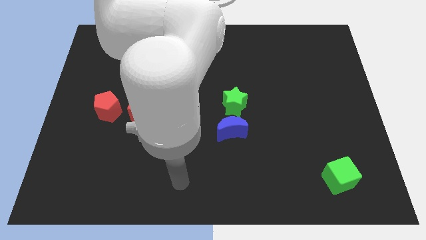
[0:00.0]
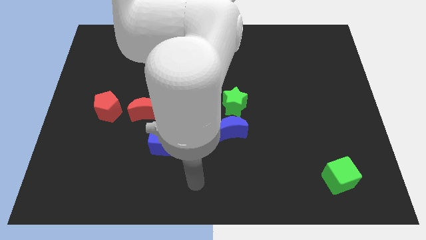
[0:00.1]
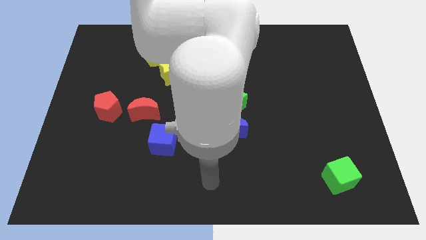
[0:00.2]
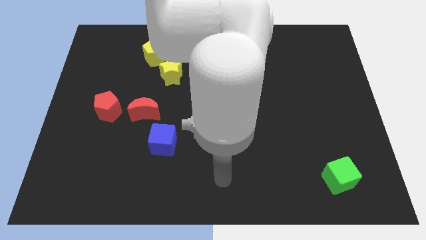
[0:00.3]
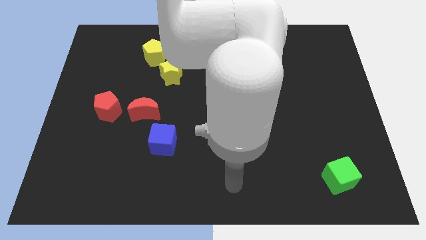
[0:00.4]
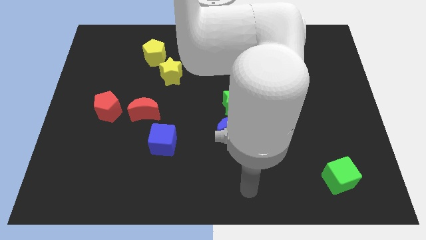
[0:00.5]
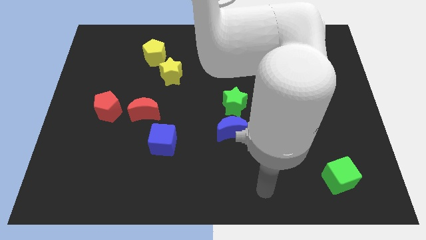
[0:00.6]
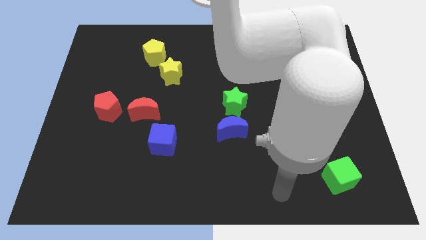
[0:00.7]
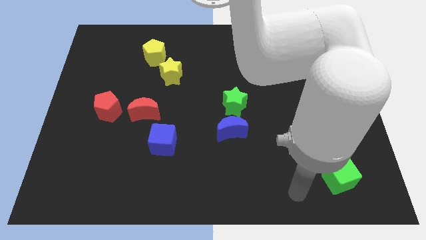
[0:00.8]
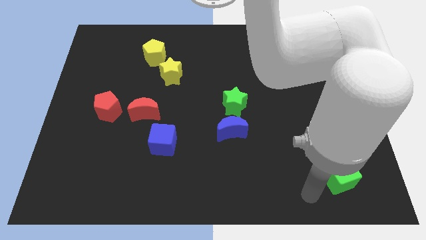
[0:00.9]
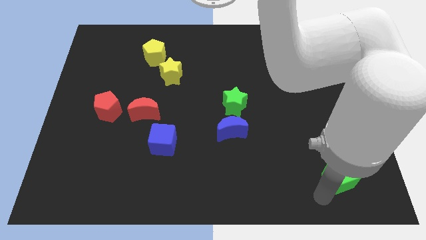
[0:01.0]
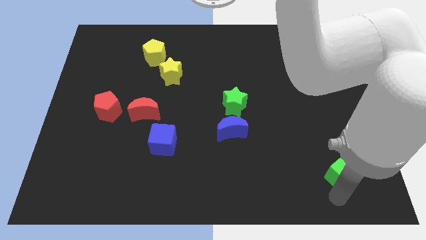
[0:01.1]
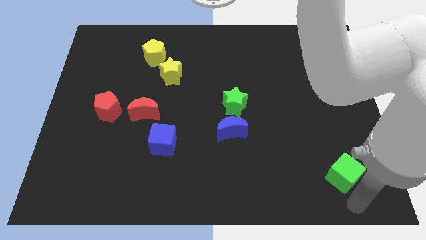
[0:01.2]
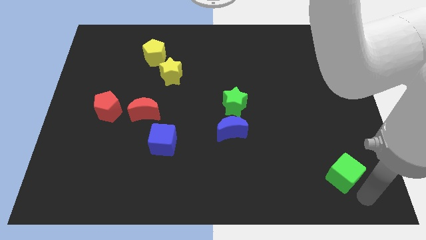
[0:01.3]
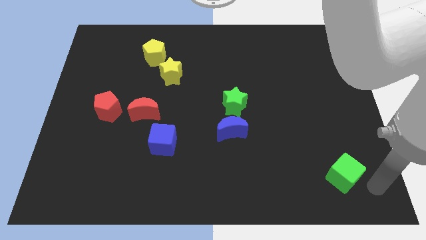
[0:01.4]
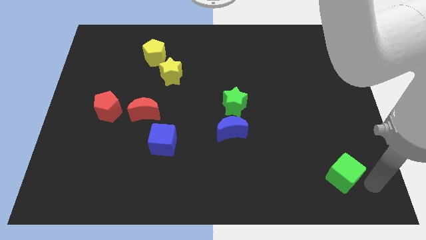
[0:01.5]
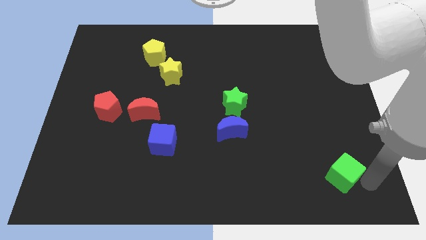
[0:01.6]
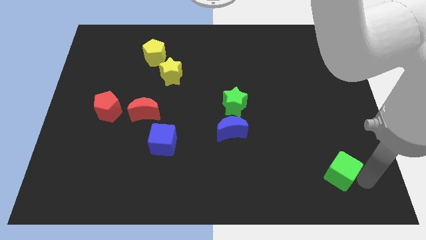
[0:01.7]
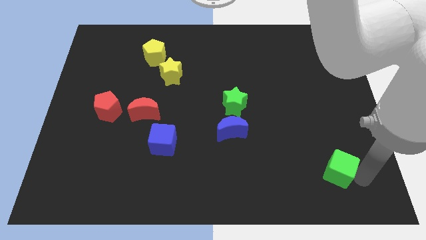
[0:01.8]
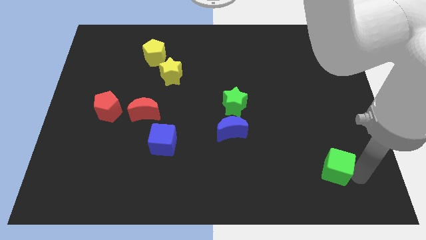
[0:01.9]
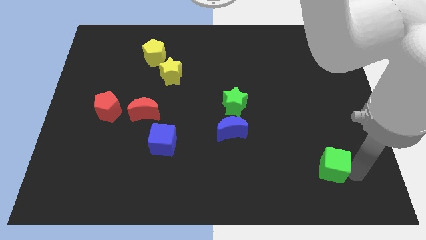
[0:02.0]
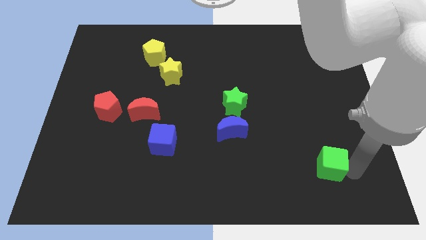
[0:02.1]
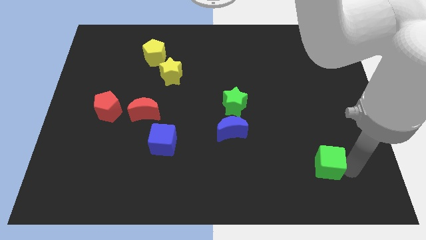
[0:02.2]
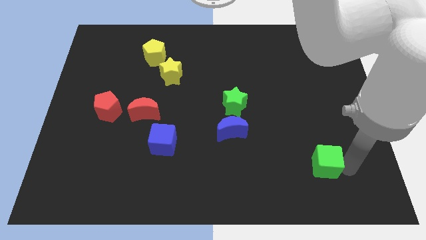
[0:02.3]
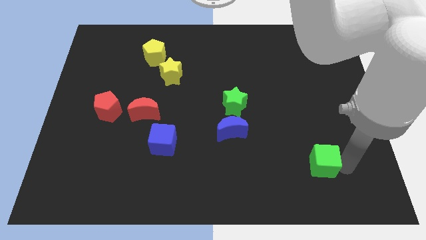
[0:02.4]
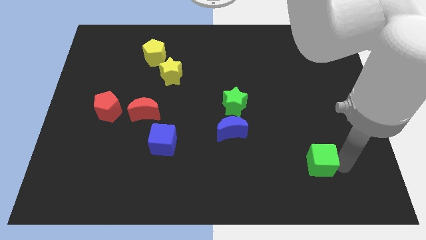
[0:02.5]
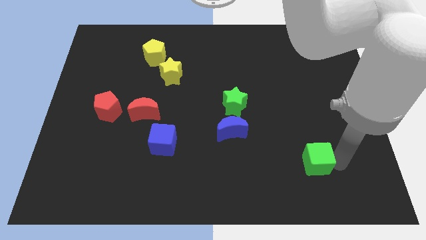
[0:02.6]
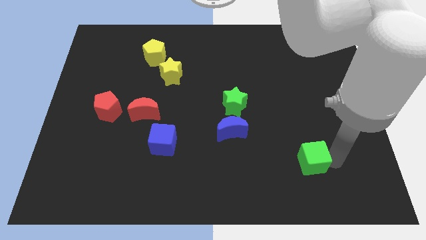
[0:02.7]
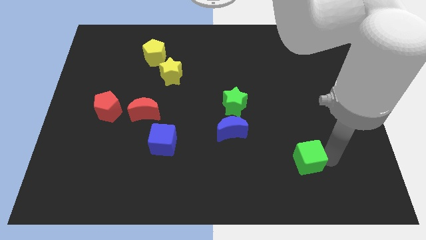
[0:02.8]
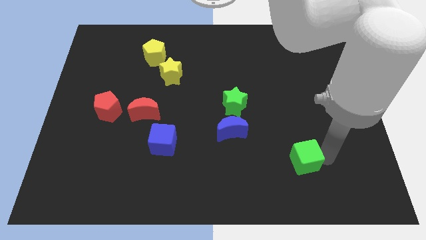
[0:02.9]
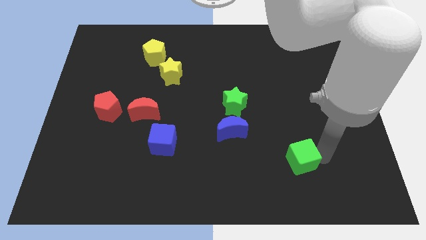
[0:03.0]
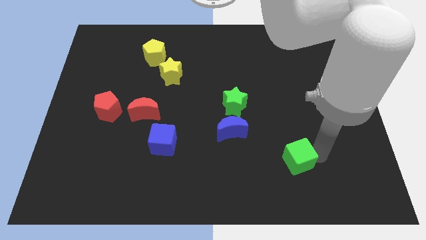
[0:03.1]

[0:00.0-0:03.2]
slightly move the green cube to the left

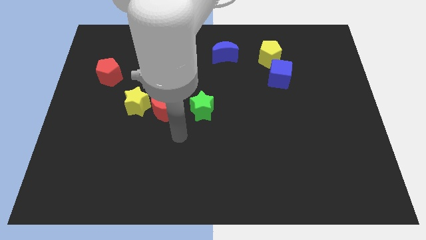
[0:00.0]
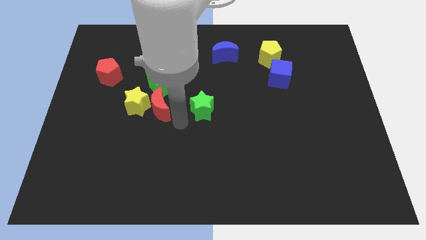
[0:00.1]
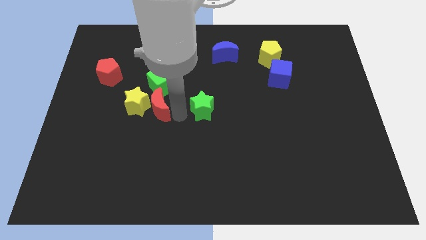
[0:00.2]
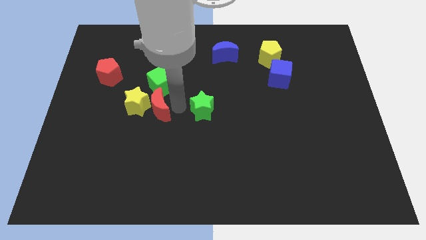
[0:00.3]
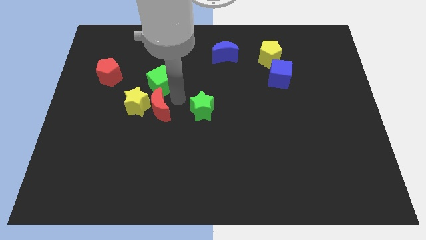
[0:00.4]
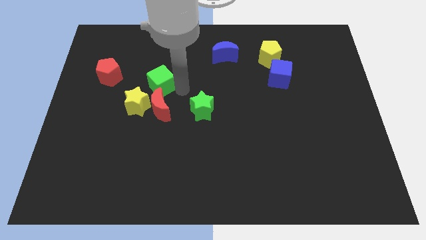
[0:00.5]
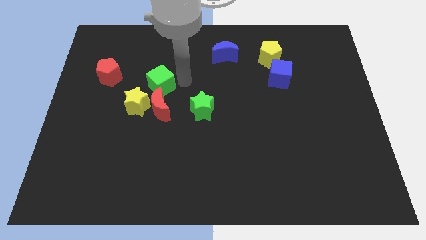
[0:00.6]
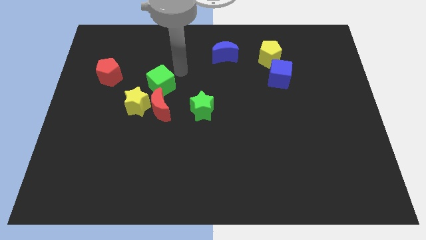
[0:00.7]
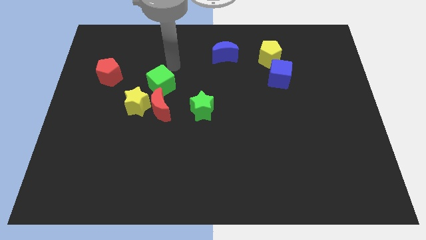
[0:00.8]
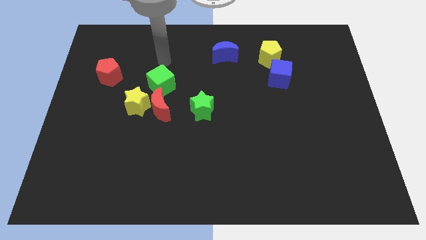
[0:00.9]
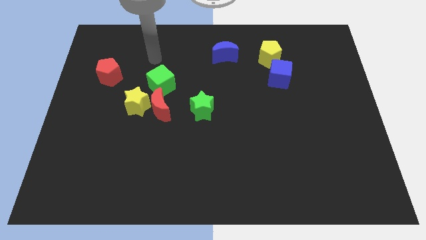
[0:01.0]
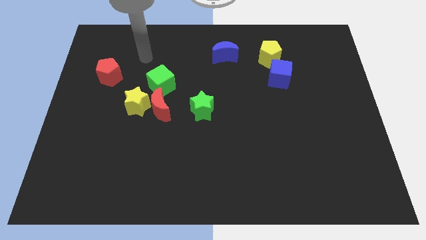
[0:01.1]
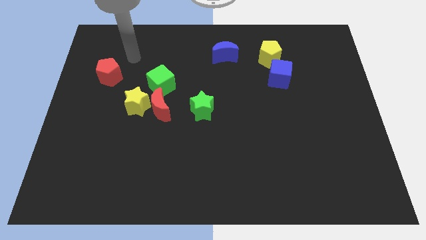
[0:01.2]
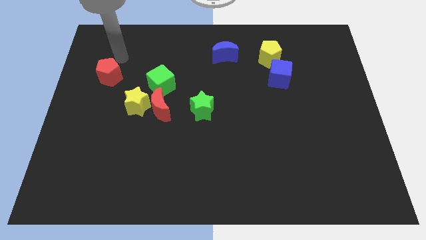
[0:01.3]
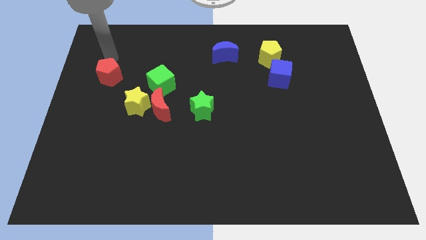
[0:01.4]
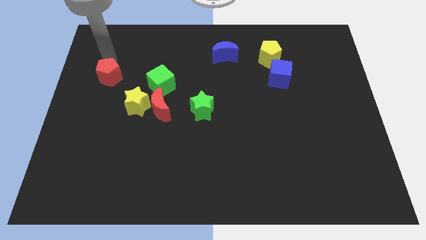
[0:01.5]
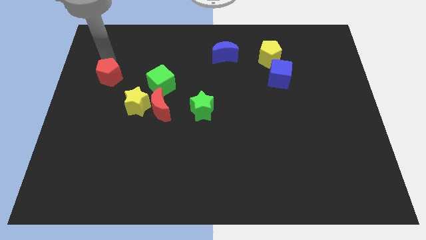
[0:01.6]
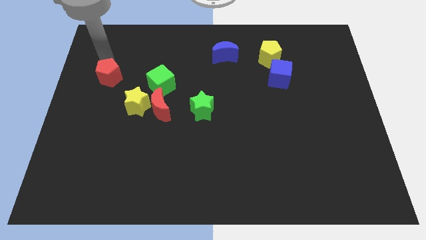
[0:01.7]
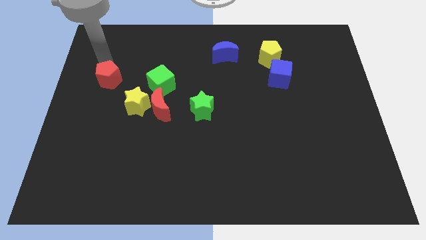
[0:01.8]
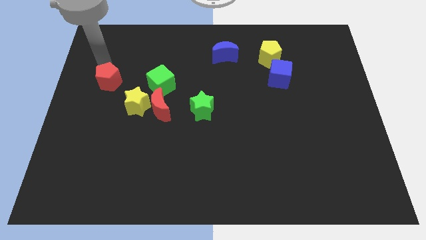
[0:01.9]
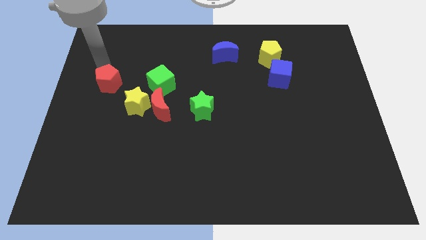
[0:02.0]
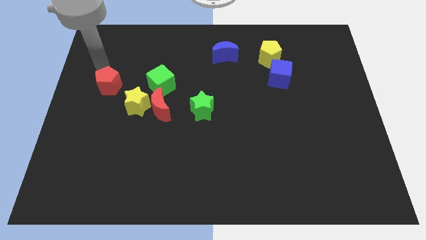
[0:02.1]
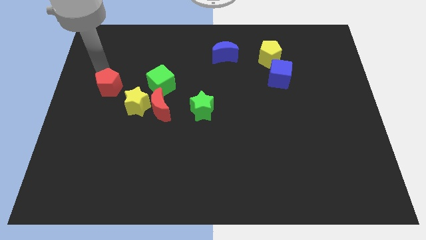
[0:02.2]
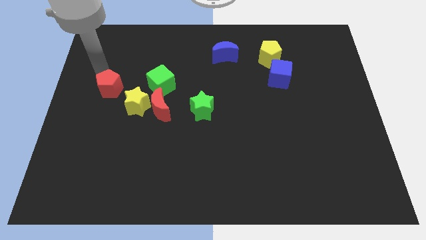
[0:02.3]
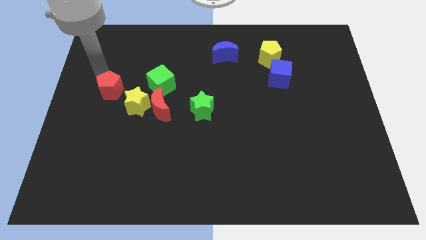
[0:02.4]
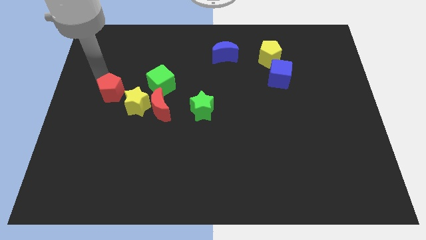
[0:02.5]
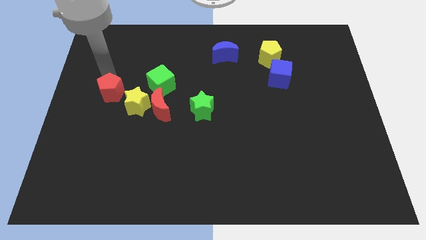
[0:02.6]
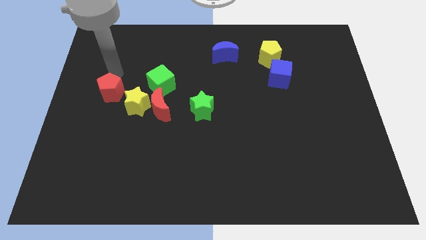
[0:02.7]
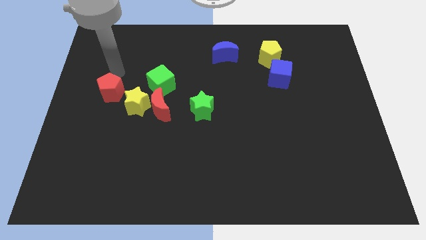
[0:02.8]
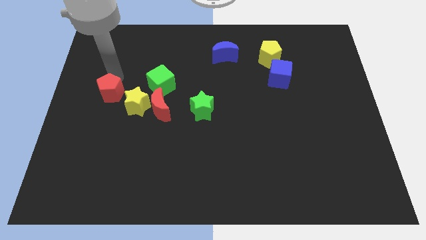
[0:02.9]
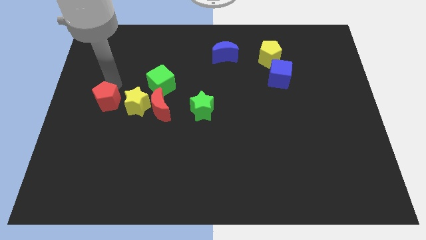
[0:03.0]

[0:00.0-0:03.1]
move the red pentagon a little downwards

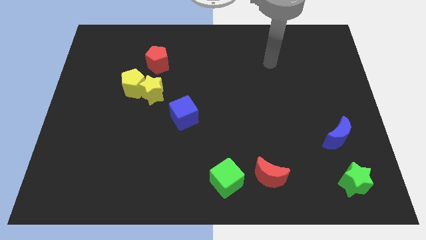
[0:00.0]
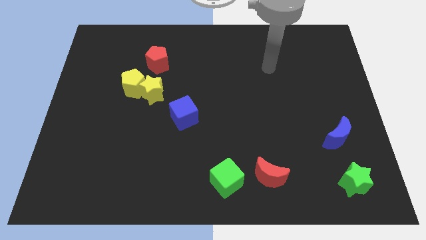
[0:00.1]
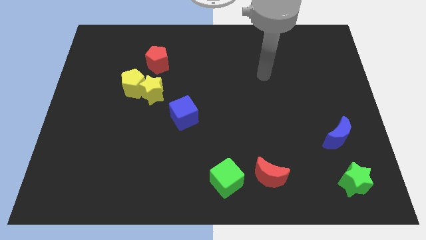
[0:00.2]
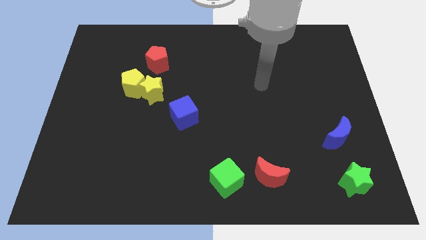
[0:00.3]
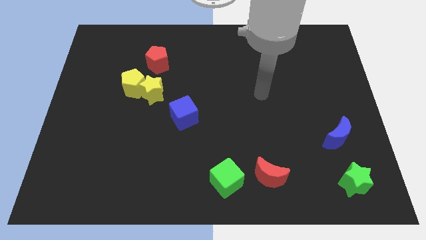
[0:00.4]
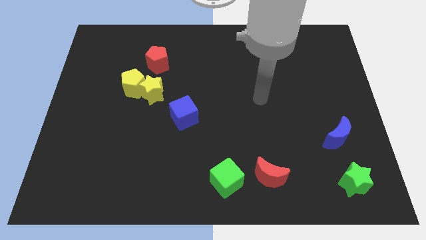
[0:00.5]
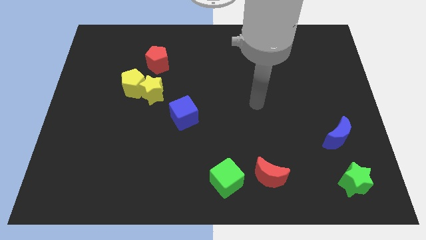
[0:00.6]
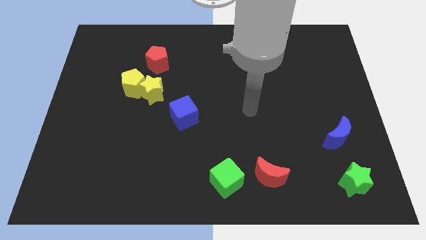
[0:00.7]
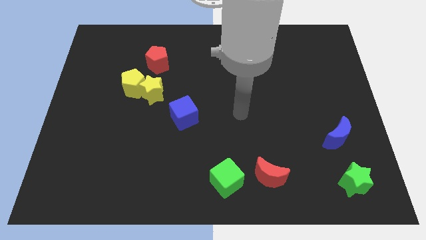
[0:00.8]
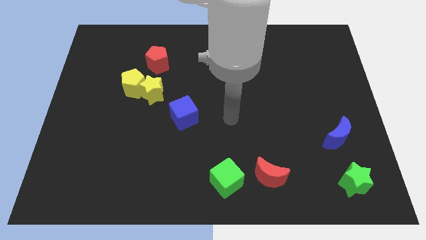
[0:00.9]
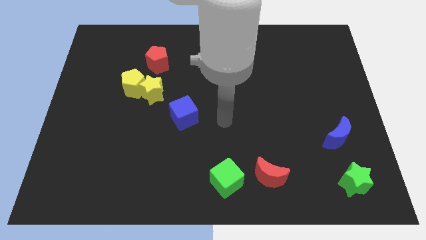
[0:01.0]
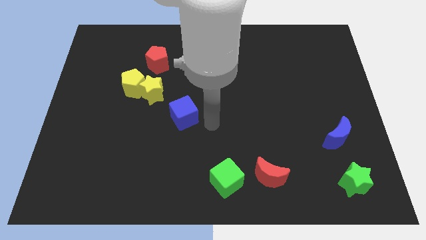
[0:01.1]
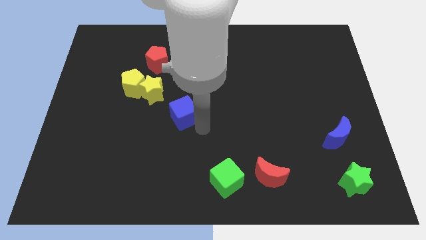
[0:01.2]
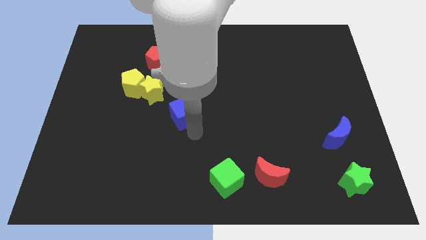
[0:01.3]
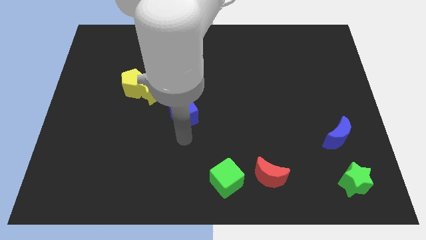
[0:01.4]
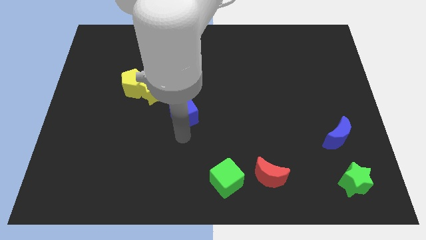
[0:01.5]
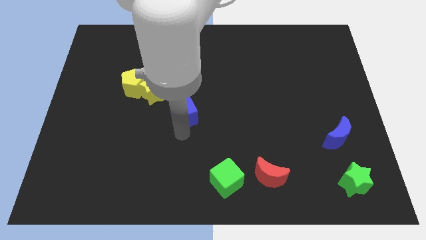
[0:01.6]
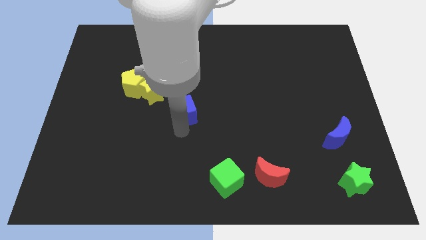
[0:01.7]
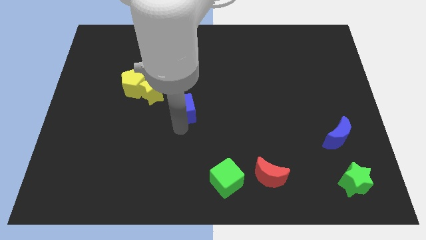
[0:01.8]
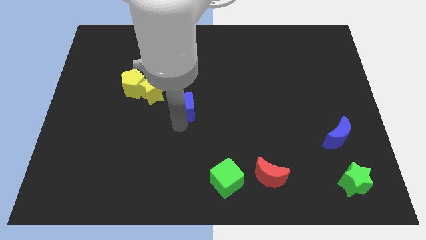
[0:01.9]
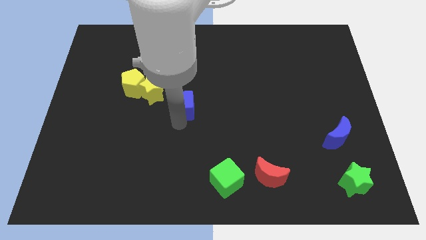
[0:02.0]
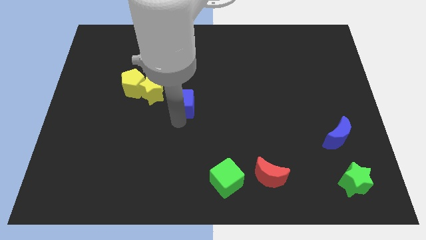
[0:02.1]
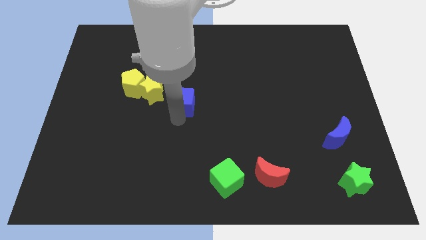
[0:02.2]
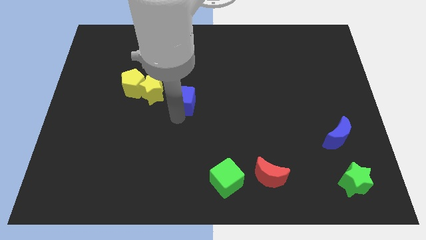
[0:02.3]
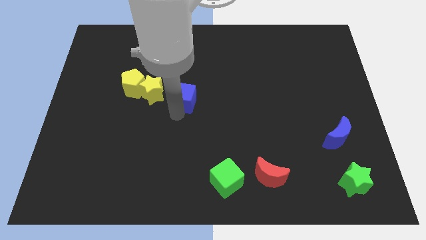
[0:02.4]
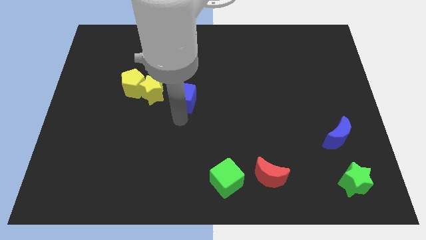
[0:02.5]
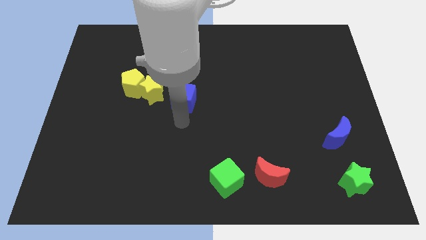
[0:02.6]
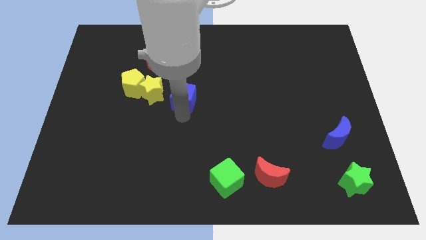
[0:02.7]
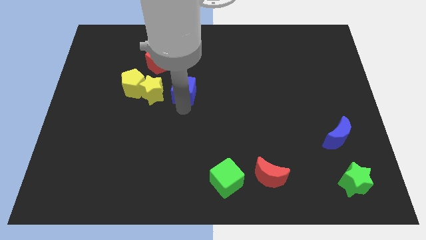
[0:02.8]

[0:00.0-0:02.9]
slightly push the blue cube upwards
